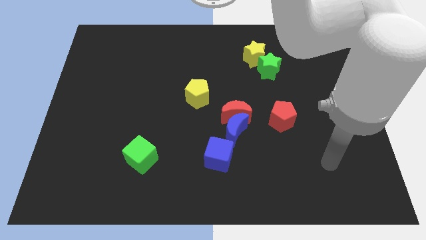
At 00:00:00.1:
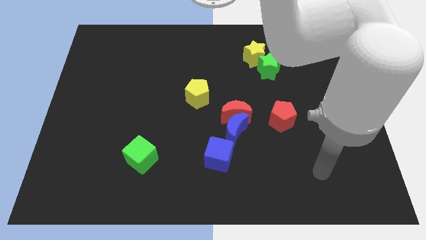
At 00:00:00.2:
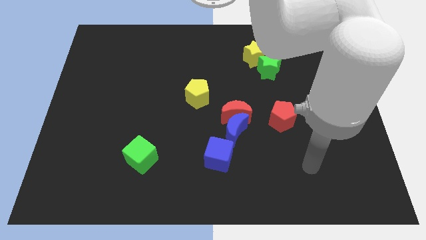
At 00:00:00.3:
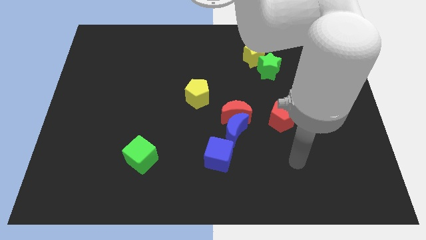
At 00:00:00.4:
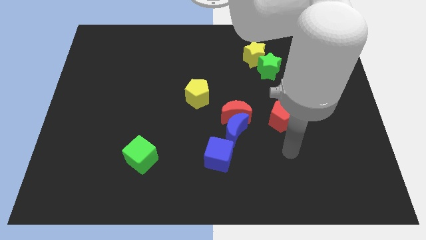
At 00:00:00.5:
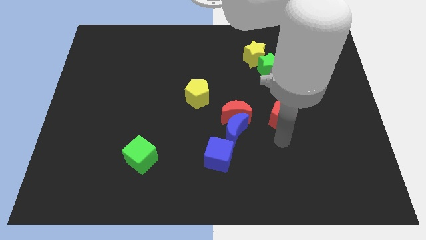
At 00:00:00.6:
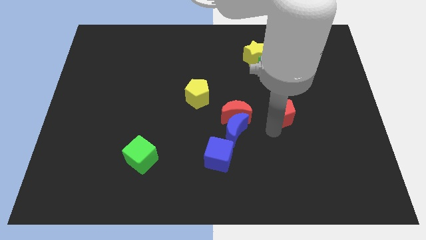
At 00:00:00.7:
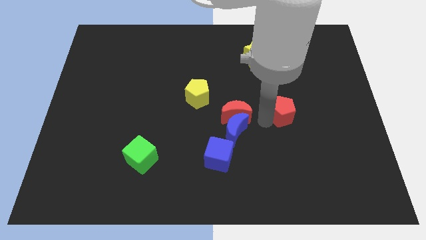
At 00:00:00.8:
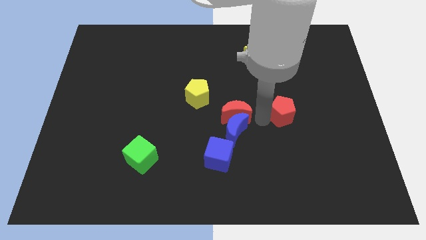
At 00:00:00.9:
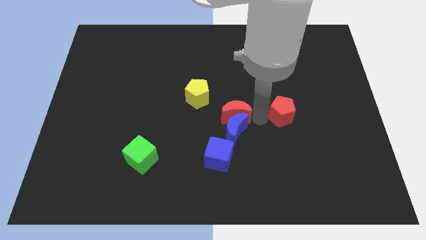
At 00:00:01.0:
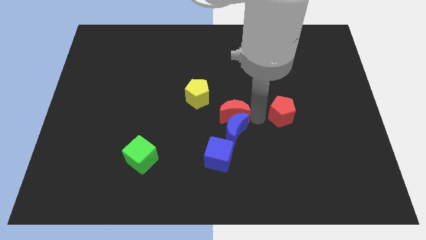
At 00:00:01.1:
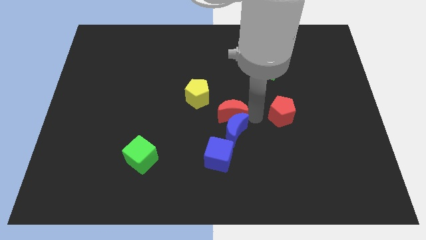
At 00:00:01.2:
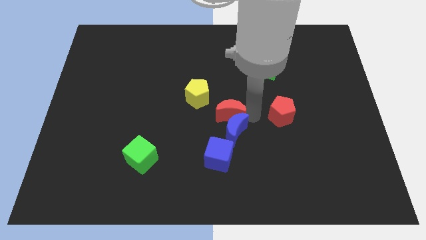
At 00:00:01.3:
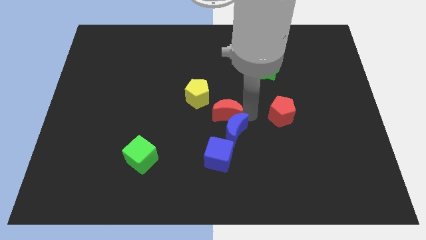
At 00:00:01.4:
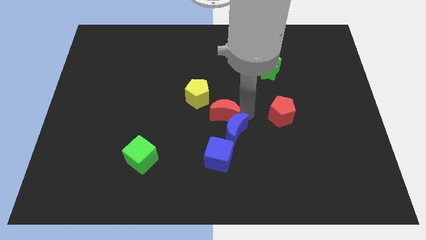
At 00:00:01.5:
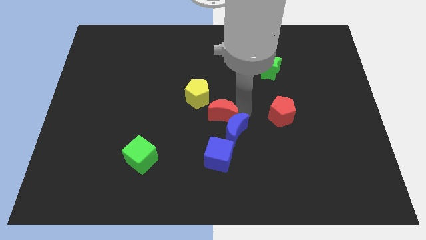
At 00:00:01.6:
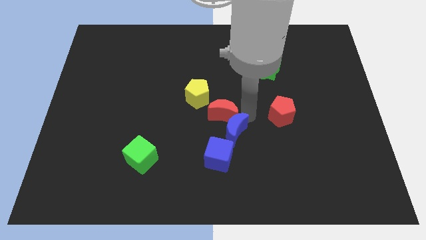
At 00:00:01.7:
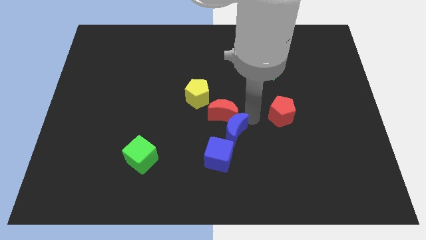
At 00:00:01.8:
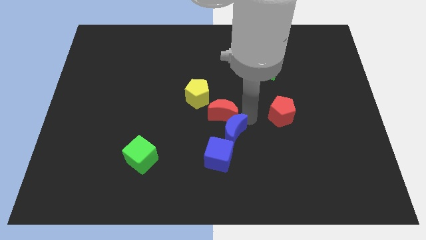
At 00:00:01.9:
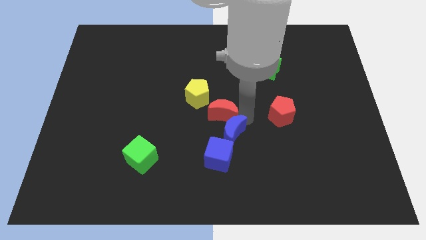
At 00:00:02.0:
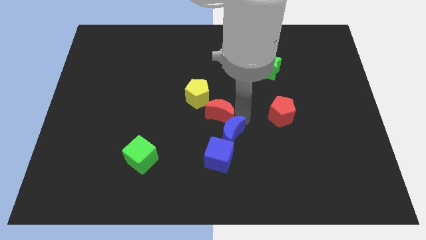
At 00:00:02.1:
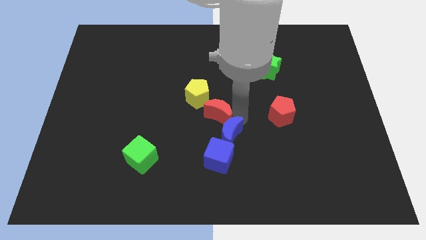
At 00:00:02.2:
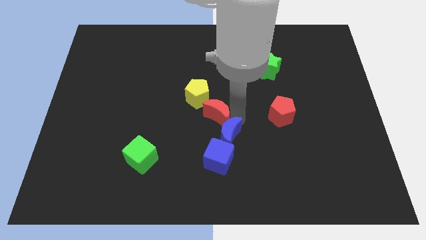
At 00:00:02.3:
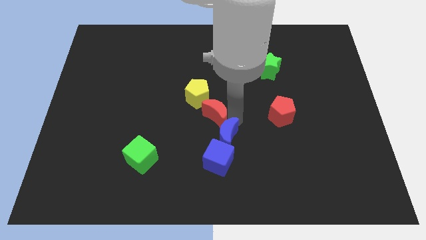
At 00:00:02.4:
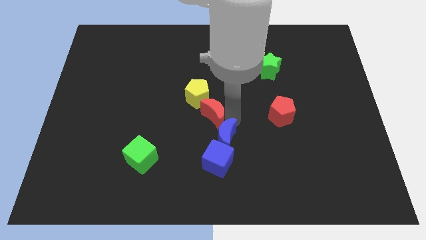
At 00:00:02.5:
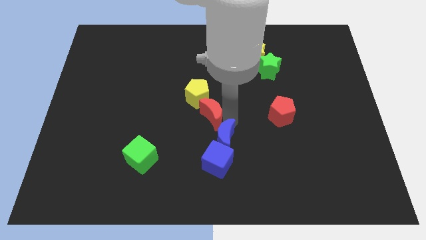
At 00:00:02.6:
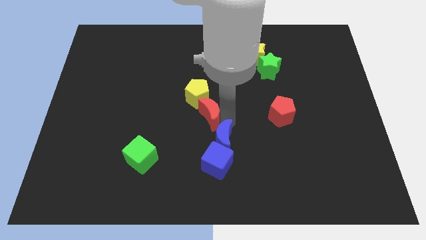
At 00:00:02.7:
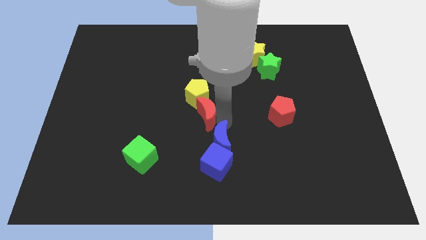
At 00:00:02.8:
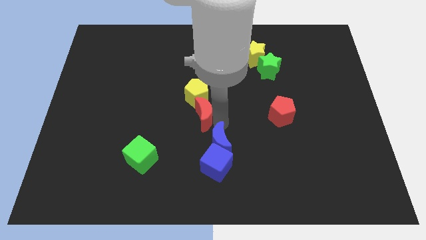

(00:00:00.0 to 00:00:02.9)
slightly move the red moon to the left

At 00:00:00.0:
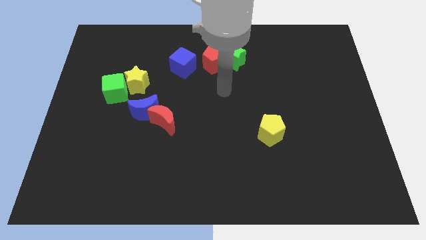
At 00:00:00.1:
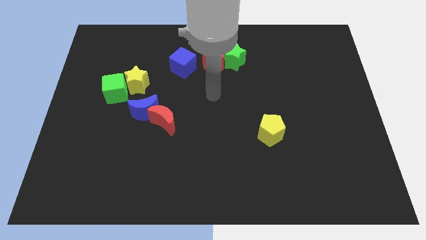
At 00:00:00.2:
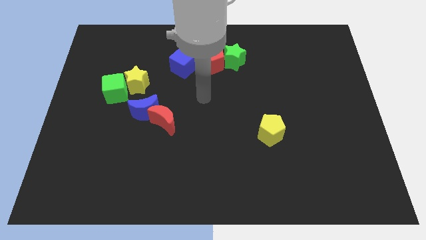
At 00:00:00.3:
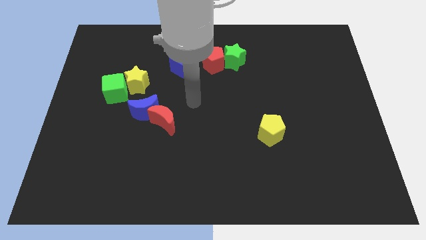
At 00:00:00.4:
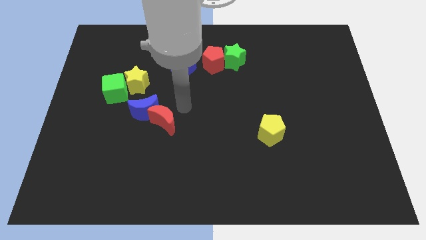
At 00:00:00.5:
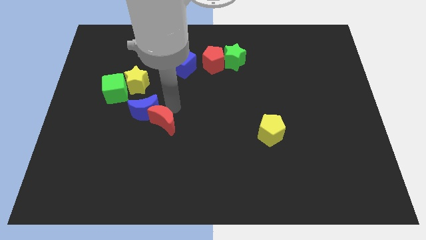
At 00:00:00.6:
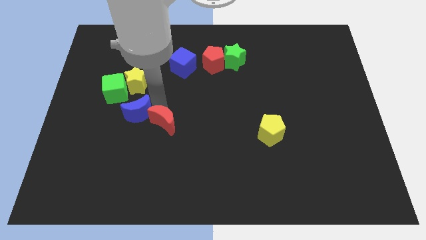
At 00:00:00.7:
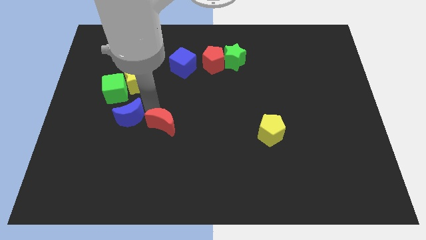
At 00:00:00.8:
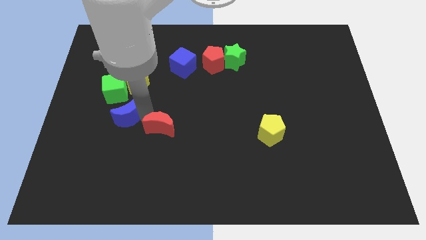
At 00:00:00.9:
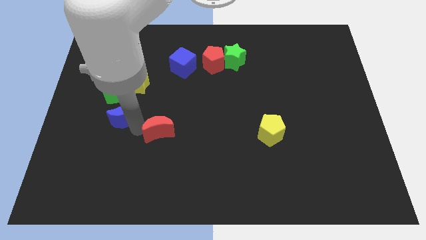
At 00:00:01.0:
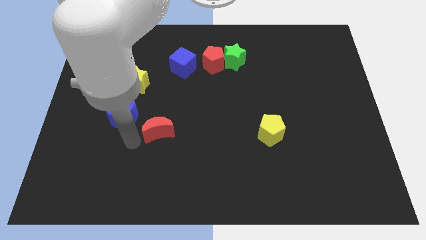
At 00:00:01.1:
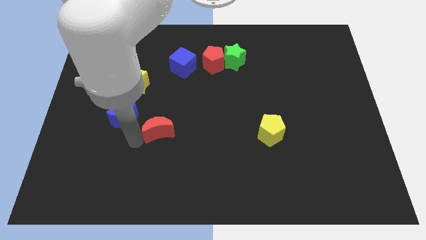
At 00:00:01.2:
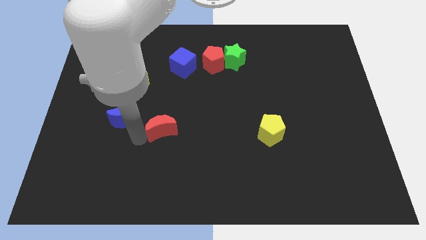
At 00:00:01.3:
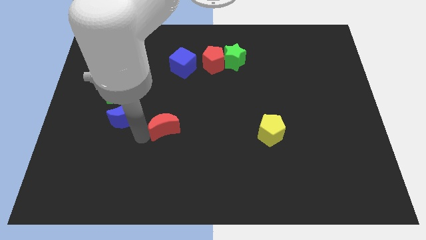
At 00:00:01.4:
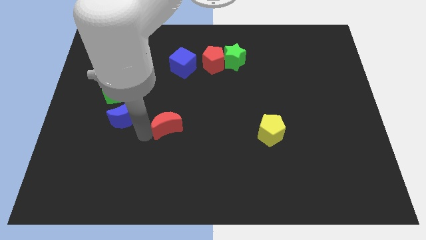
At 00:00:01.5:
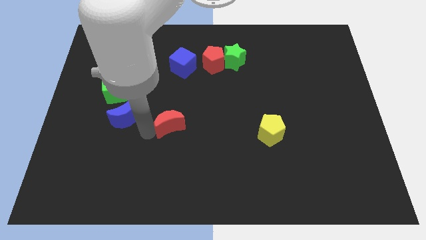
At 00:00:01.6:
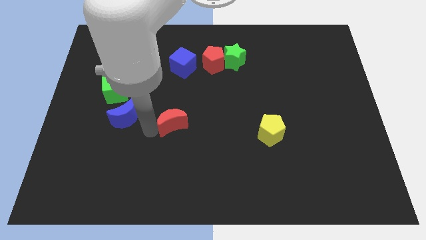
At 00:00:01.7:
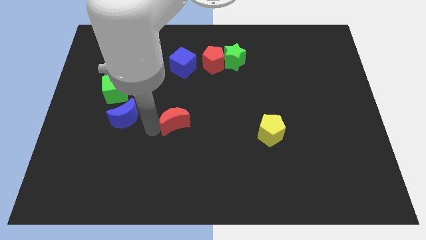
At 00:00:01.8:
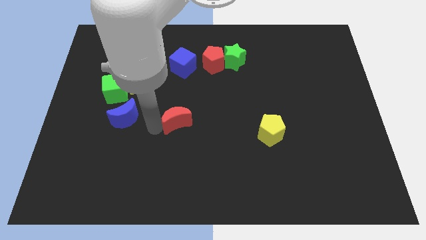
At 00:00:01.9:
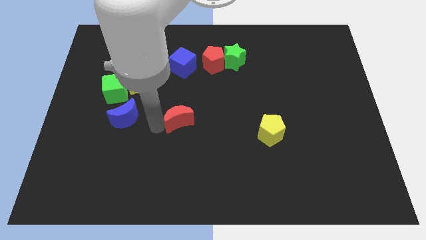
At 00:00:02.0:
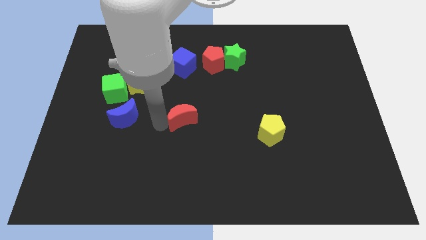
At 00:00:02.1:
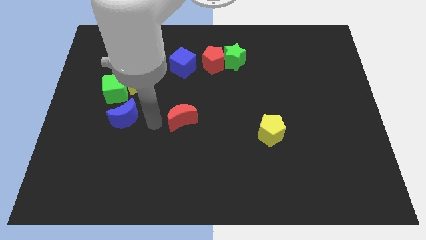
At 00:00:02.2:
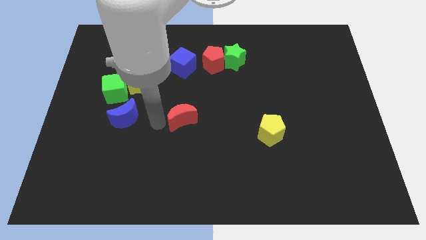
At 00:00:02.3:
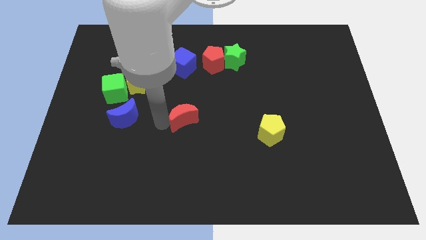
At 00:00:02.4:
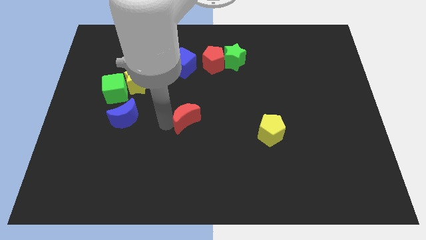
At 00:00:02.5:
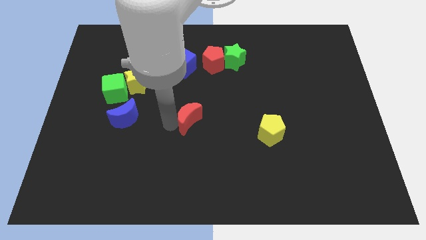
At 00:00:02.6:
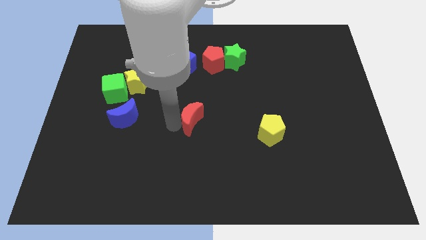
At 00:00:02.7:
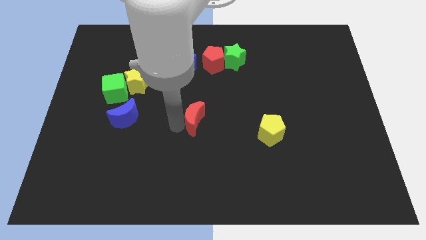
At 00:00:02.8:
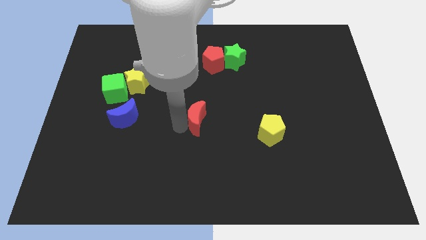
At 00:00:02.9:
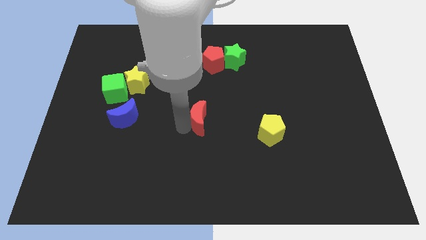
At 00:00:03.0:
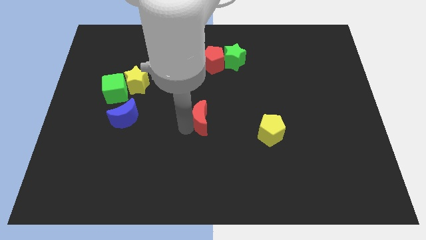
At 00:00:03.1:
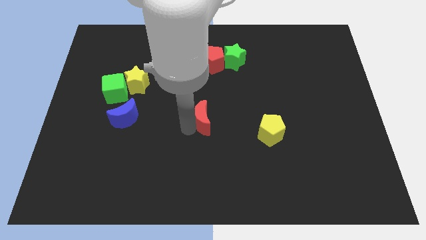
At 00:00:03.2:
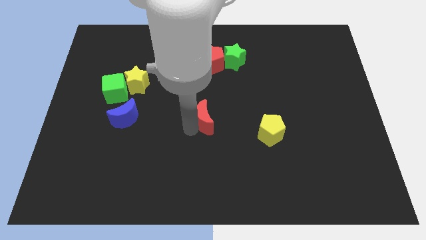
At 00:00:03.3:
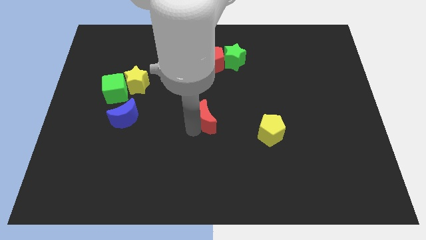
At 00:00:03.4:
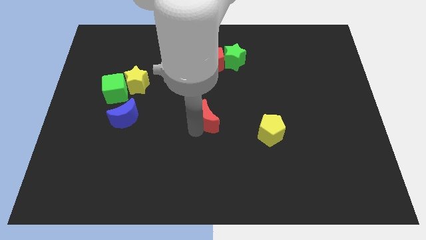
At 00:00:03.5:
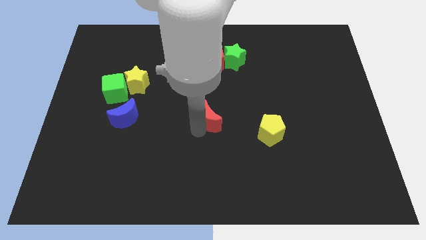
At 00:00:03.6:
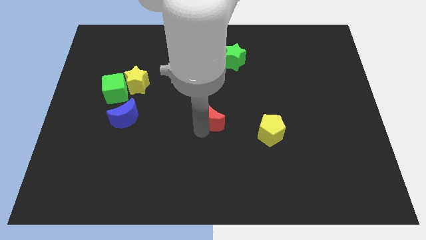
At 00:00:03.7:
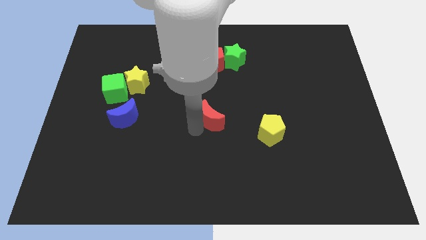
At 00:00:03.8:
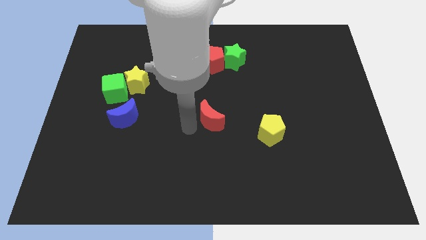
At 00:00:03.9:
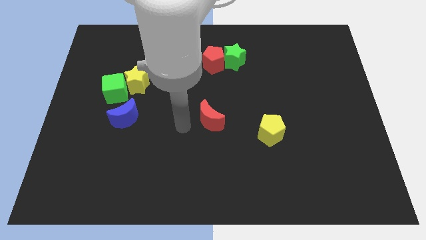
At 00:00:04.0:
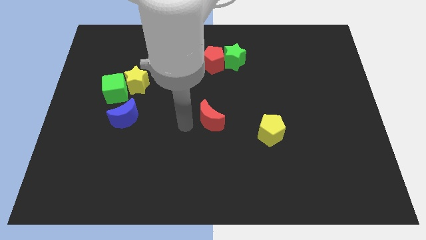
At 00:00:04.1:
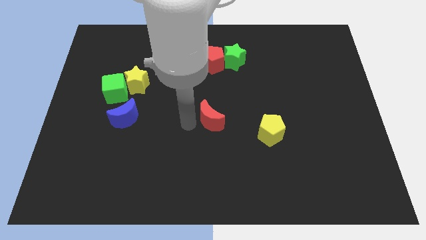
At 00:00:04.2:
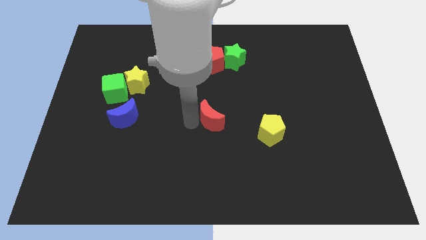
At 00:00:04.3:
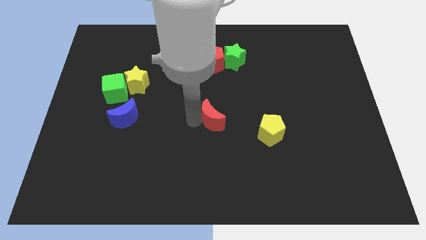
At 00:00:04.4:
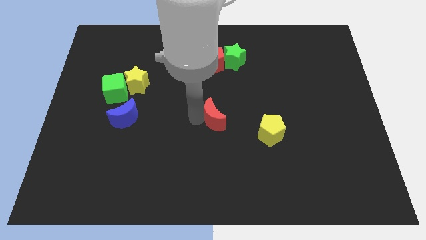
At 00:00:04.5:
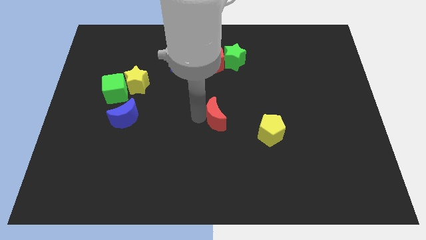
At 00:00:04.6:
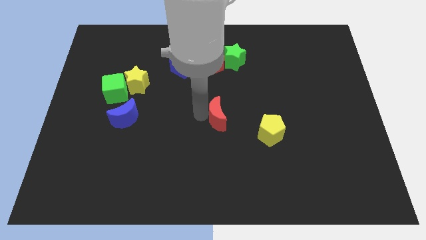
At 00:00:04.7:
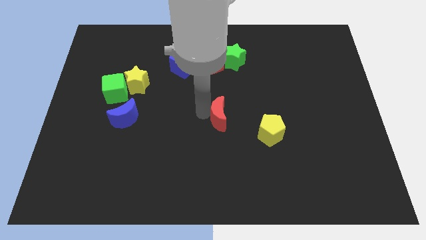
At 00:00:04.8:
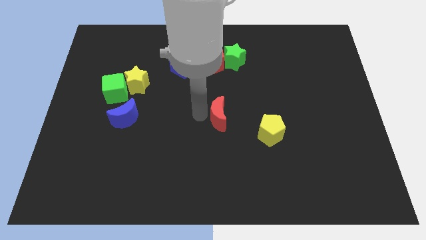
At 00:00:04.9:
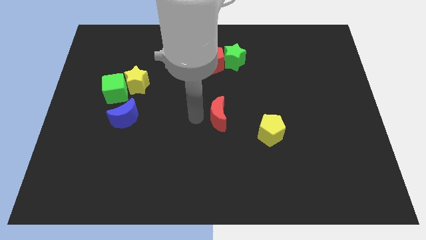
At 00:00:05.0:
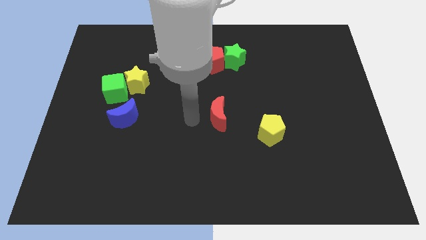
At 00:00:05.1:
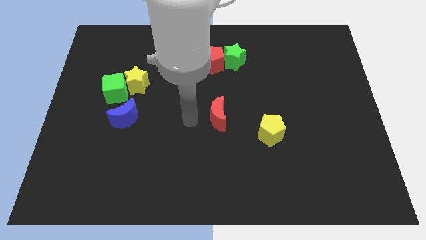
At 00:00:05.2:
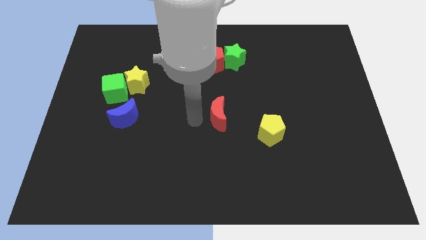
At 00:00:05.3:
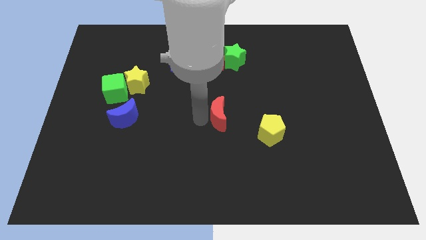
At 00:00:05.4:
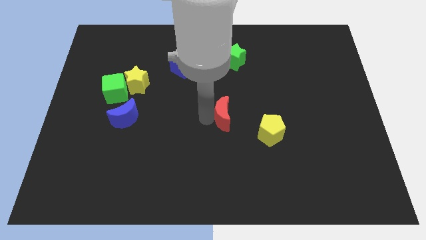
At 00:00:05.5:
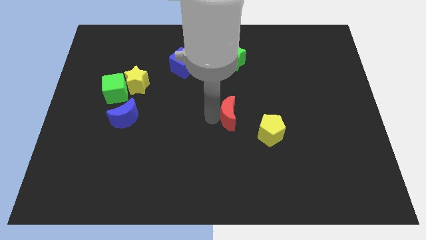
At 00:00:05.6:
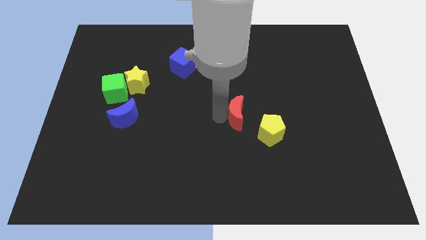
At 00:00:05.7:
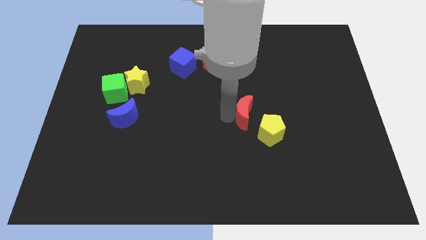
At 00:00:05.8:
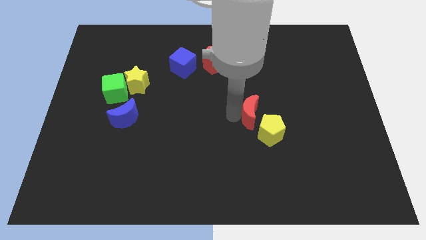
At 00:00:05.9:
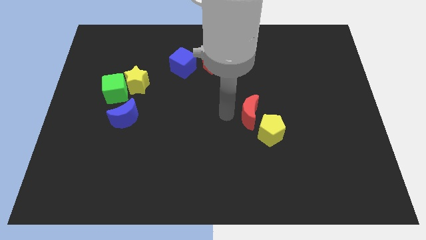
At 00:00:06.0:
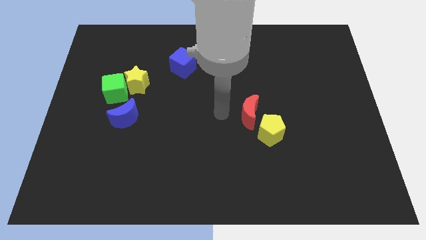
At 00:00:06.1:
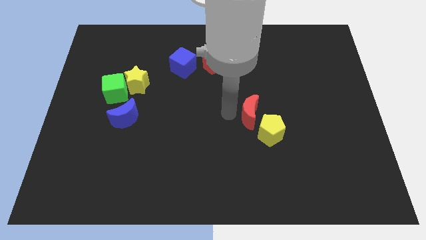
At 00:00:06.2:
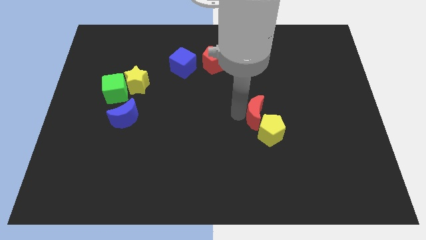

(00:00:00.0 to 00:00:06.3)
push the red moon to the right
